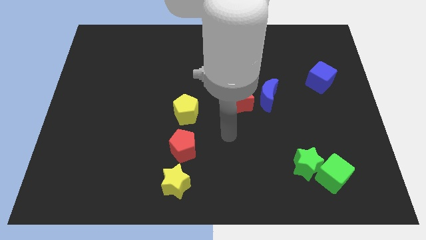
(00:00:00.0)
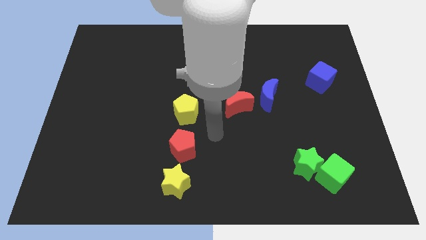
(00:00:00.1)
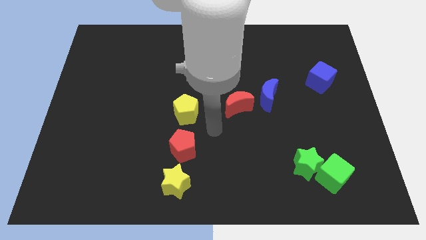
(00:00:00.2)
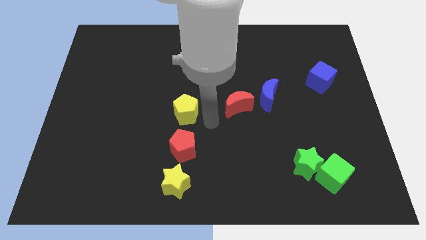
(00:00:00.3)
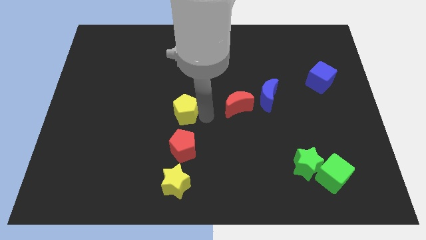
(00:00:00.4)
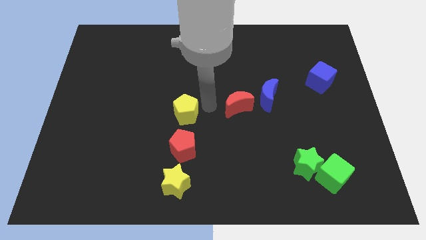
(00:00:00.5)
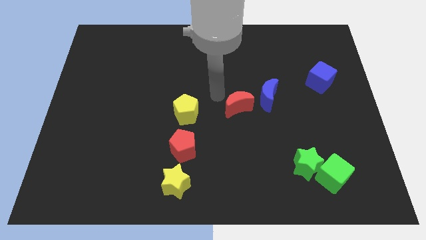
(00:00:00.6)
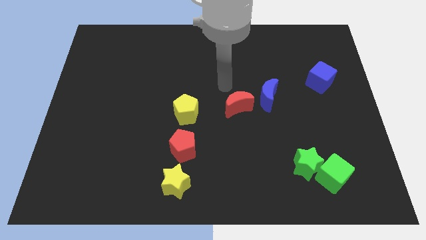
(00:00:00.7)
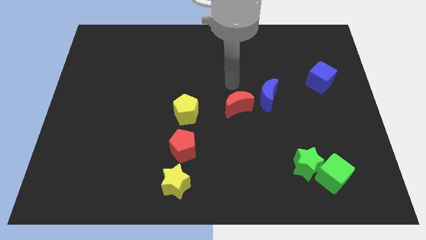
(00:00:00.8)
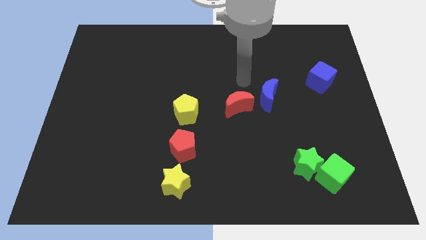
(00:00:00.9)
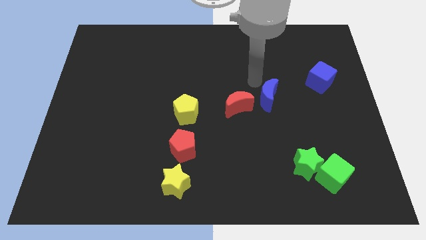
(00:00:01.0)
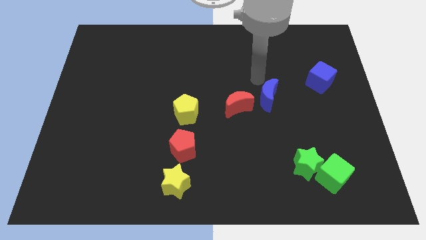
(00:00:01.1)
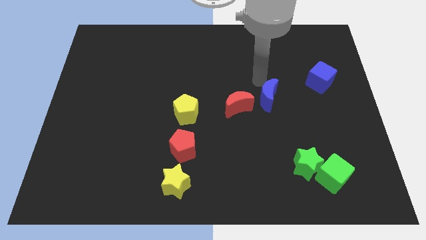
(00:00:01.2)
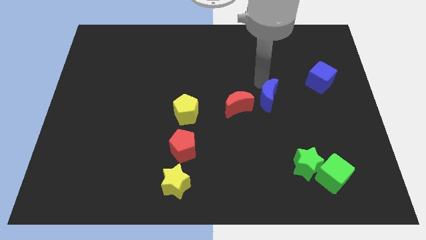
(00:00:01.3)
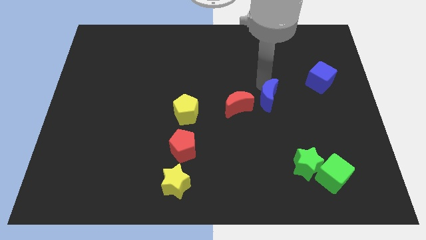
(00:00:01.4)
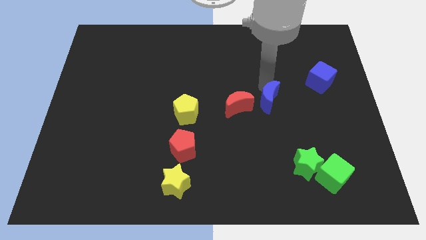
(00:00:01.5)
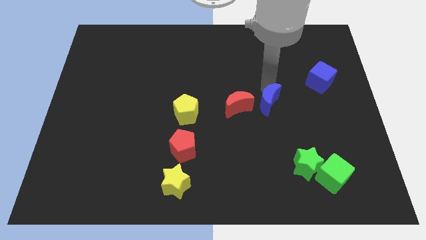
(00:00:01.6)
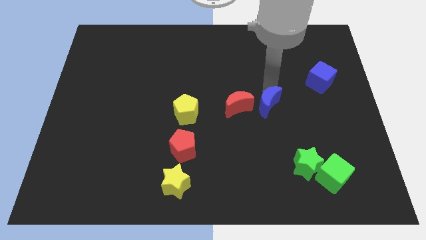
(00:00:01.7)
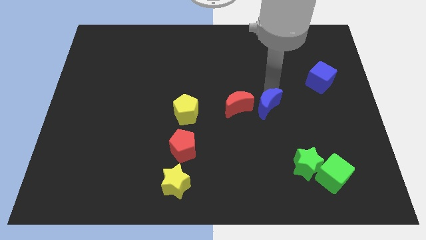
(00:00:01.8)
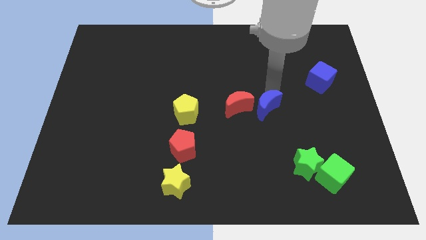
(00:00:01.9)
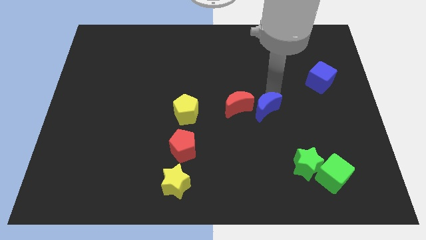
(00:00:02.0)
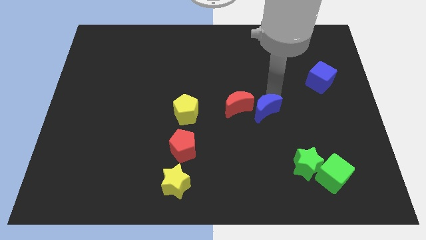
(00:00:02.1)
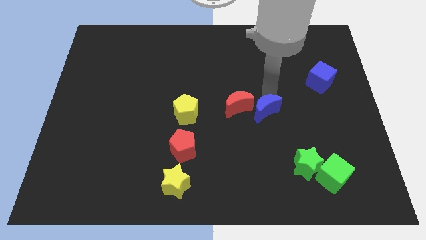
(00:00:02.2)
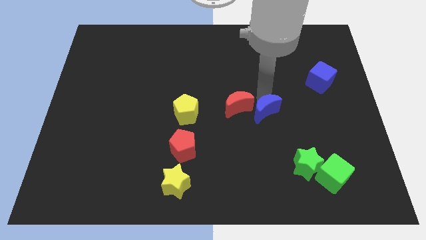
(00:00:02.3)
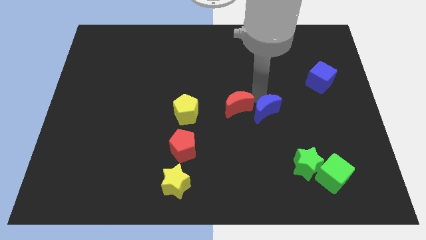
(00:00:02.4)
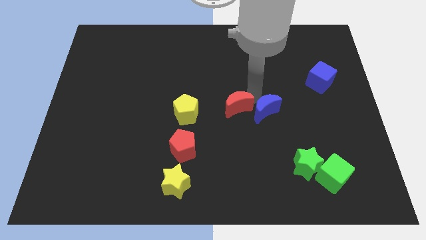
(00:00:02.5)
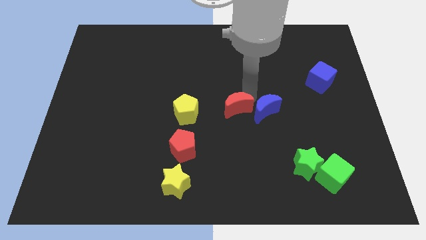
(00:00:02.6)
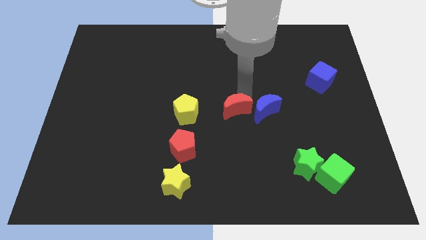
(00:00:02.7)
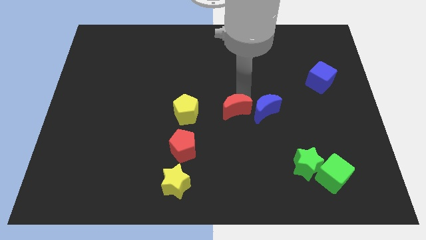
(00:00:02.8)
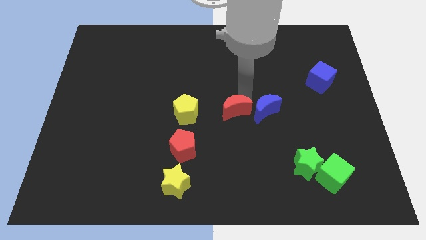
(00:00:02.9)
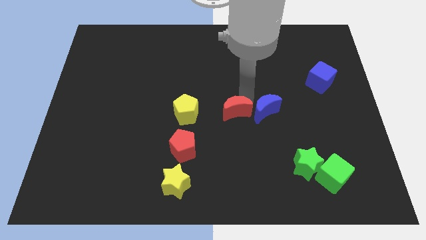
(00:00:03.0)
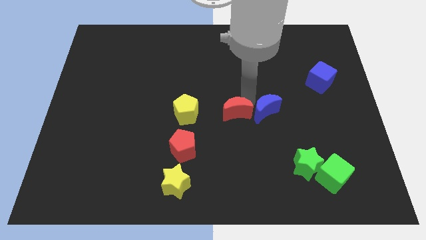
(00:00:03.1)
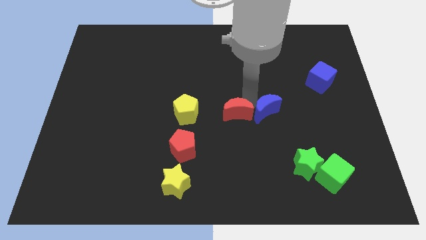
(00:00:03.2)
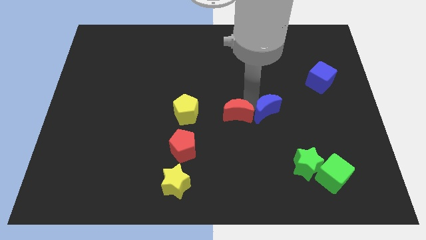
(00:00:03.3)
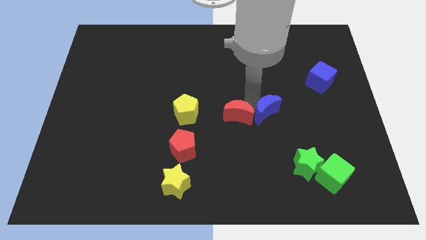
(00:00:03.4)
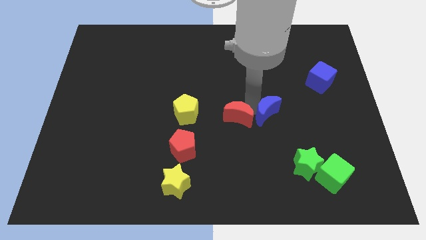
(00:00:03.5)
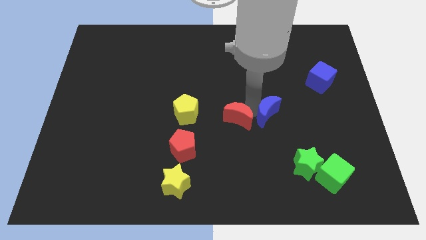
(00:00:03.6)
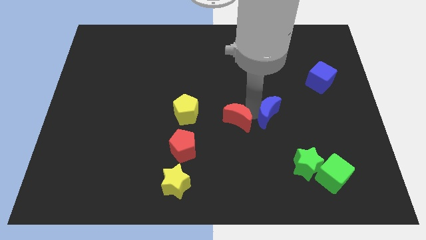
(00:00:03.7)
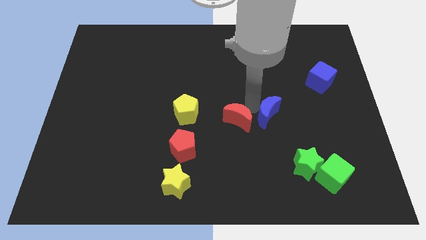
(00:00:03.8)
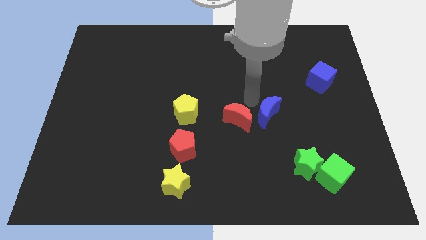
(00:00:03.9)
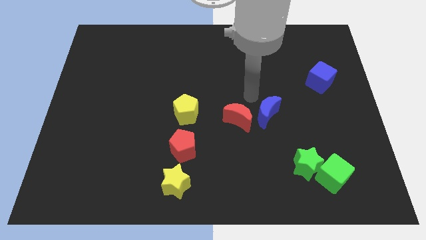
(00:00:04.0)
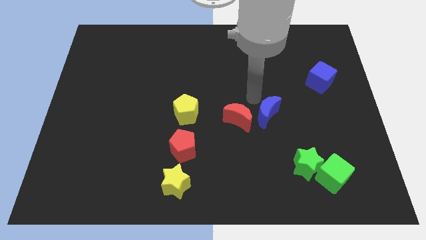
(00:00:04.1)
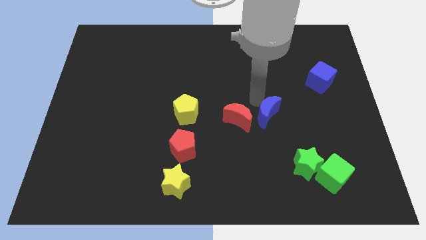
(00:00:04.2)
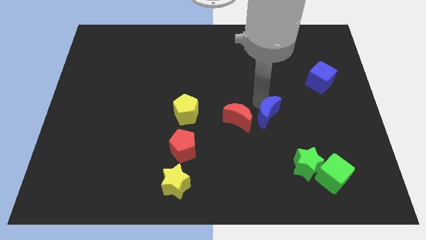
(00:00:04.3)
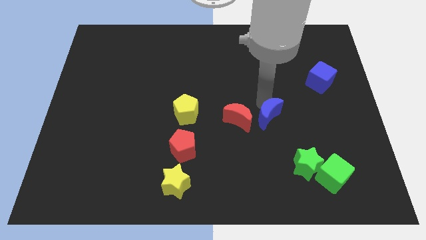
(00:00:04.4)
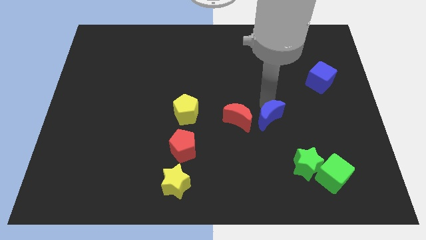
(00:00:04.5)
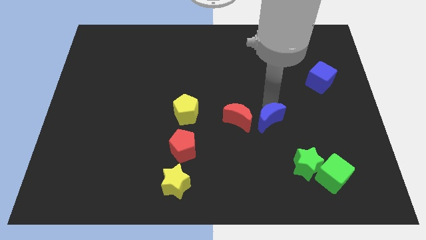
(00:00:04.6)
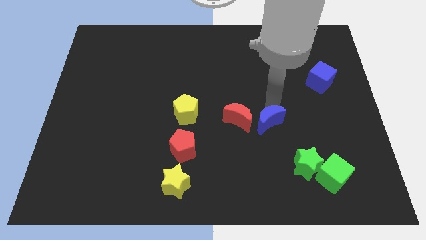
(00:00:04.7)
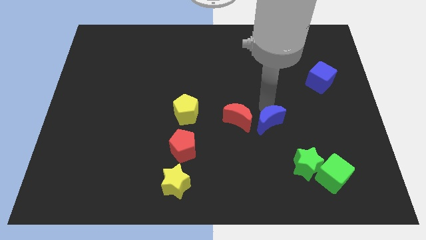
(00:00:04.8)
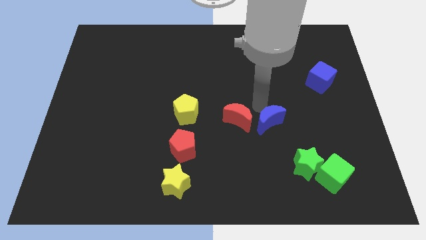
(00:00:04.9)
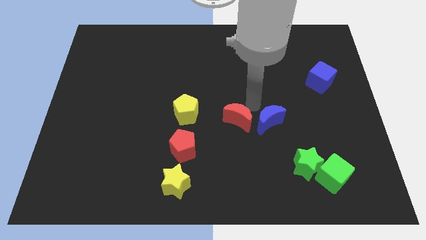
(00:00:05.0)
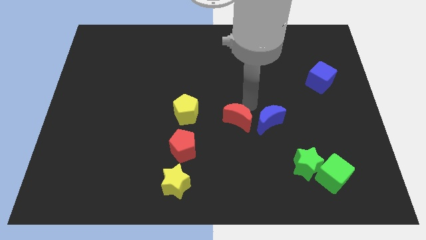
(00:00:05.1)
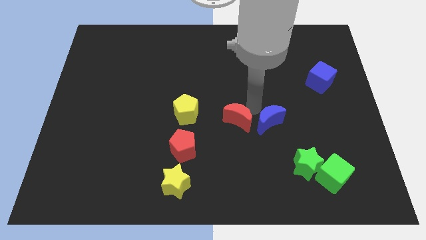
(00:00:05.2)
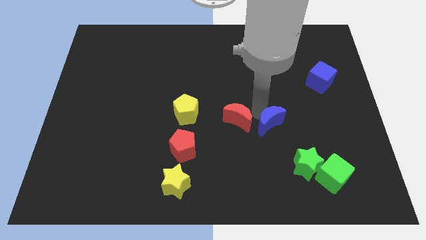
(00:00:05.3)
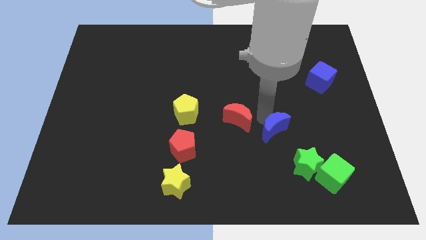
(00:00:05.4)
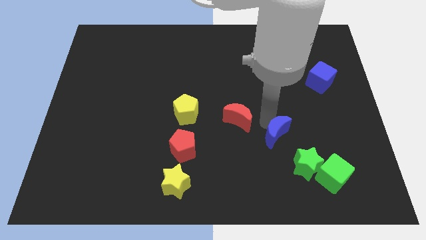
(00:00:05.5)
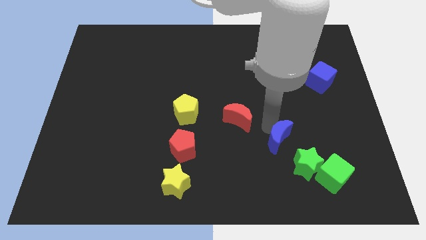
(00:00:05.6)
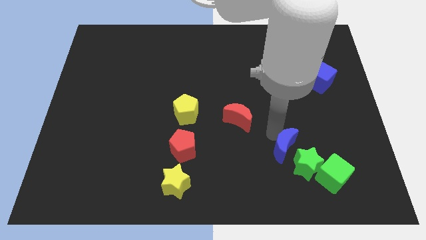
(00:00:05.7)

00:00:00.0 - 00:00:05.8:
slide the blue moon close to the green star

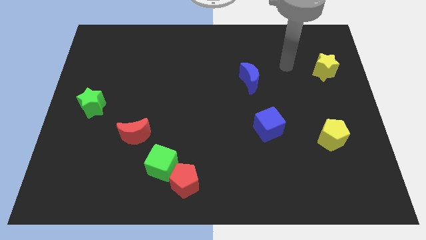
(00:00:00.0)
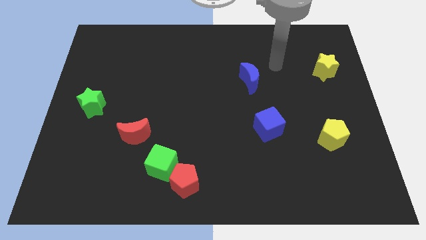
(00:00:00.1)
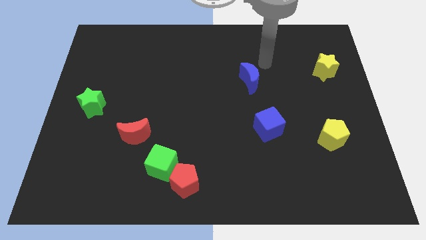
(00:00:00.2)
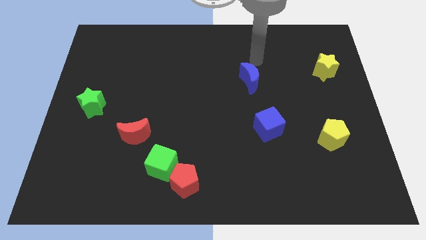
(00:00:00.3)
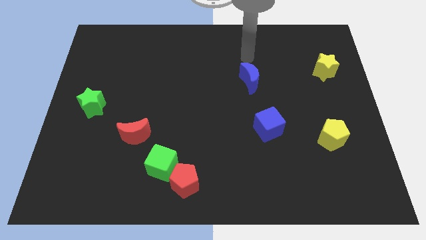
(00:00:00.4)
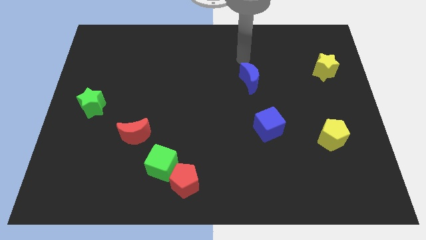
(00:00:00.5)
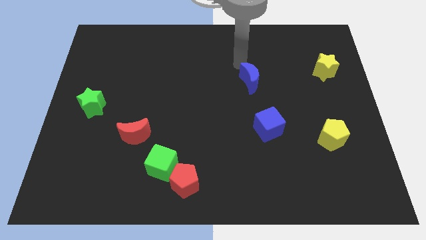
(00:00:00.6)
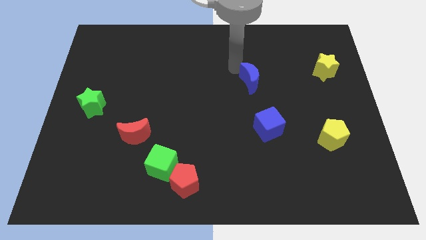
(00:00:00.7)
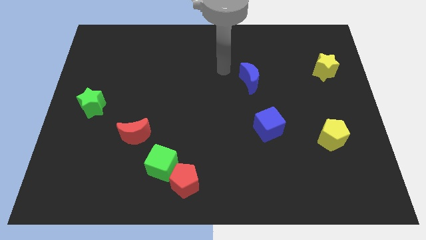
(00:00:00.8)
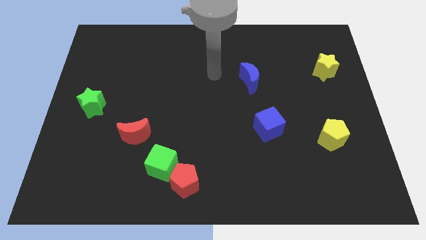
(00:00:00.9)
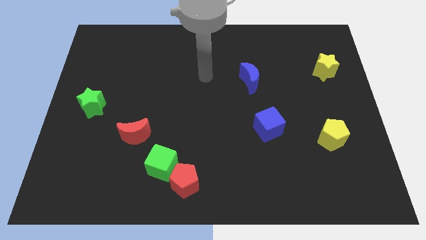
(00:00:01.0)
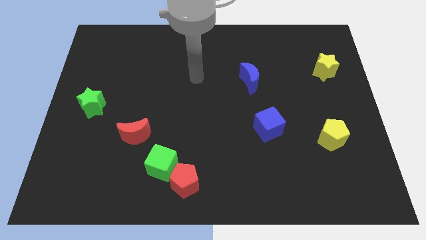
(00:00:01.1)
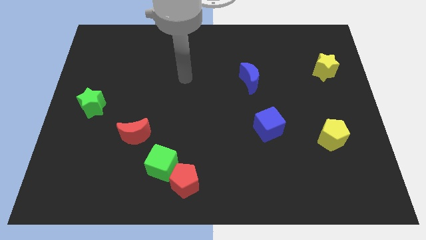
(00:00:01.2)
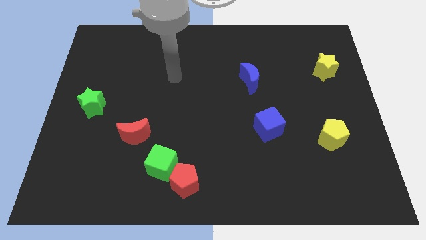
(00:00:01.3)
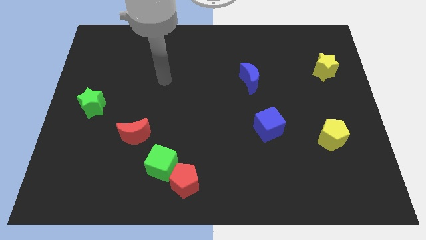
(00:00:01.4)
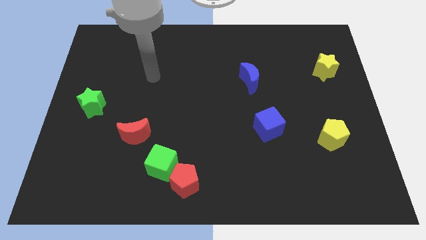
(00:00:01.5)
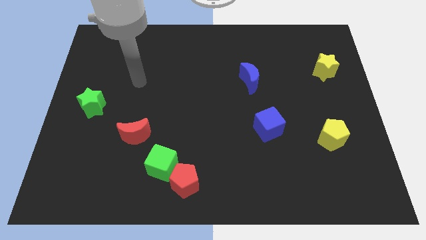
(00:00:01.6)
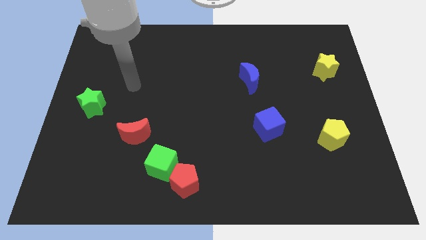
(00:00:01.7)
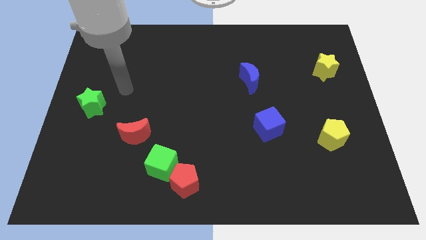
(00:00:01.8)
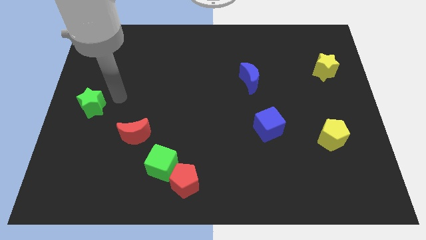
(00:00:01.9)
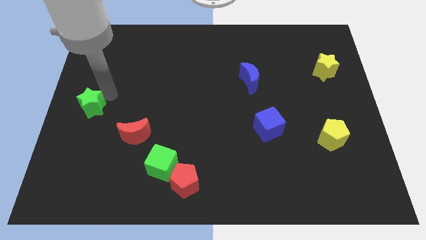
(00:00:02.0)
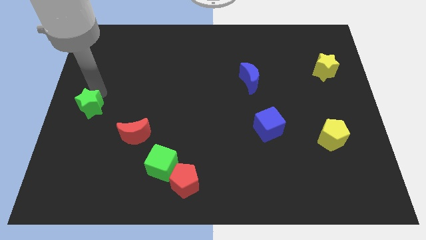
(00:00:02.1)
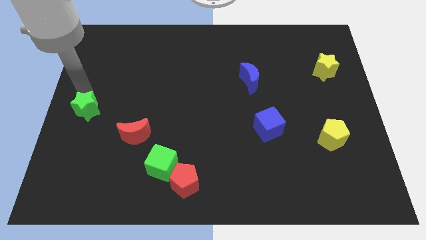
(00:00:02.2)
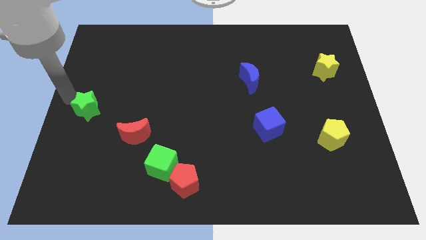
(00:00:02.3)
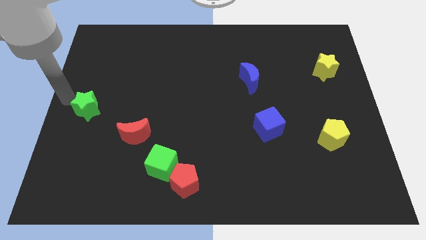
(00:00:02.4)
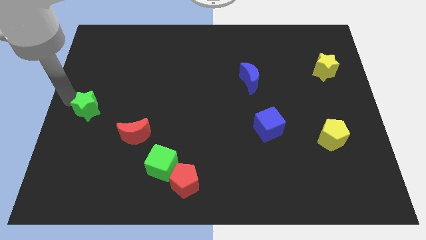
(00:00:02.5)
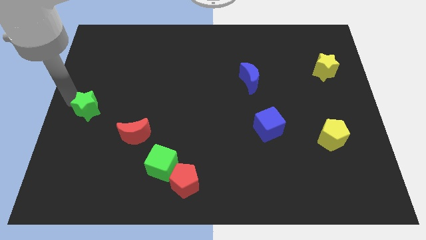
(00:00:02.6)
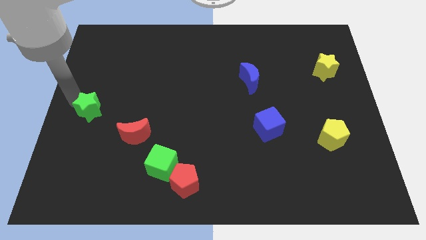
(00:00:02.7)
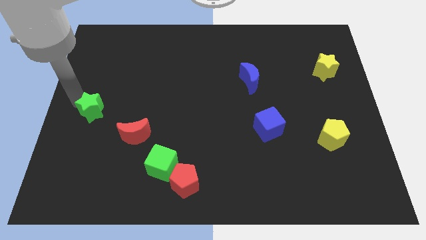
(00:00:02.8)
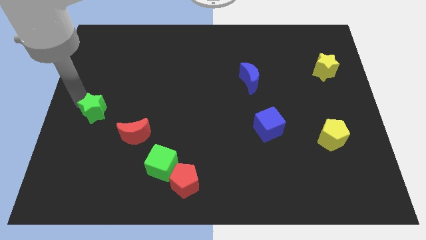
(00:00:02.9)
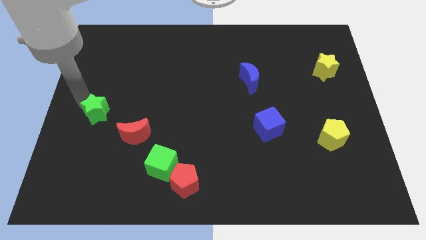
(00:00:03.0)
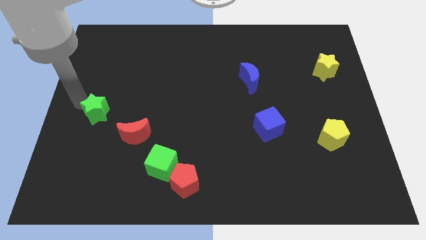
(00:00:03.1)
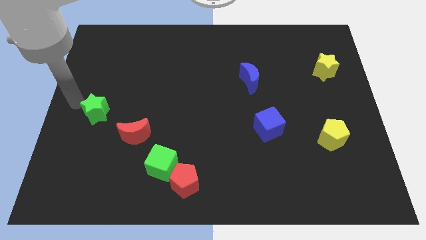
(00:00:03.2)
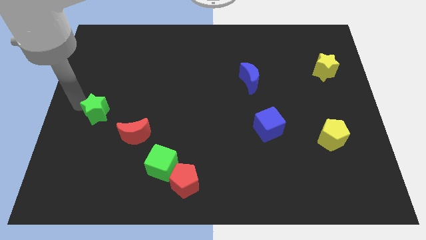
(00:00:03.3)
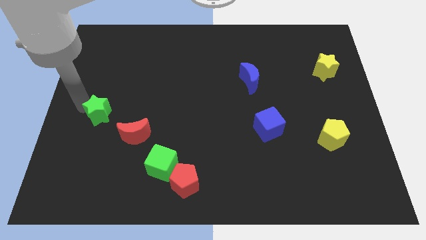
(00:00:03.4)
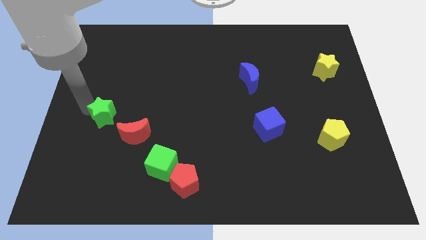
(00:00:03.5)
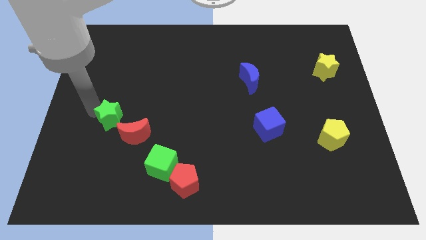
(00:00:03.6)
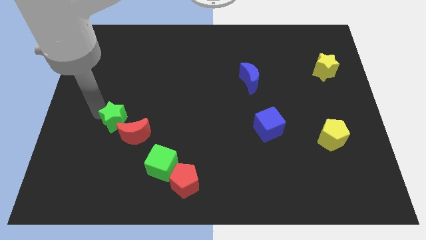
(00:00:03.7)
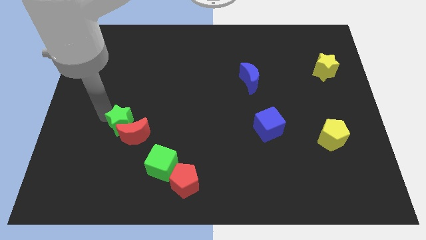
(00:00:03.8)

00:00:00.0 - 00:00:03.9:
slide the green star close to the red moon
